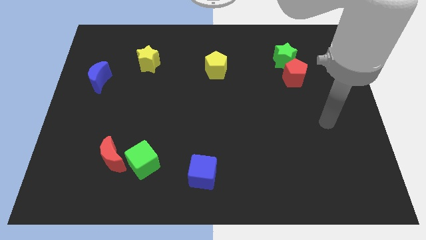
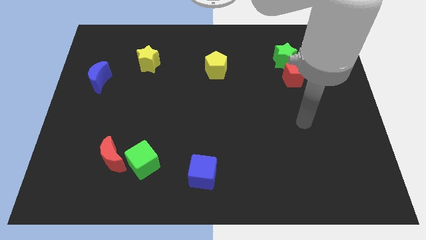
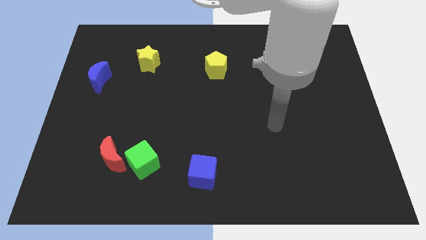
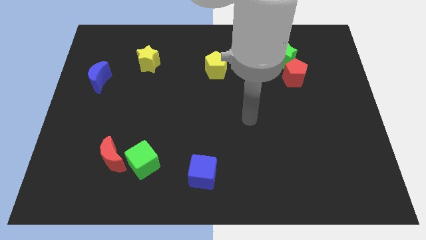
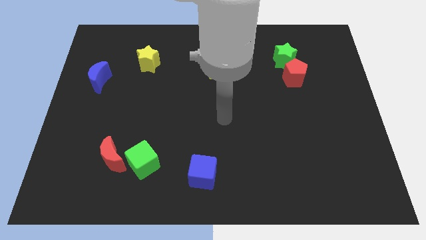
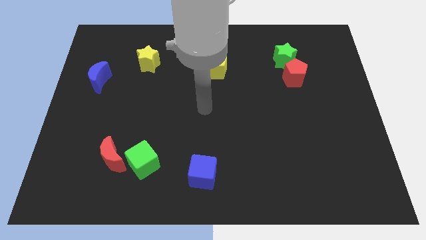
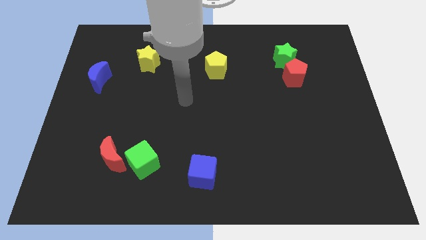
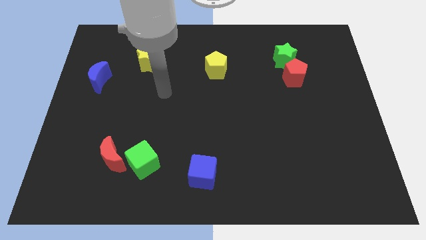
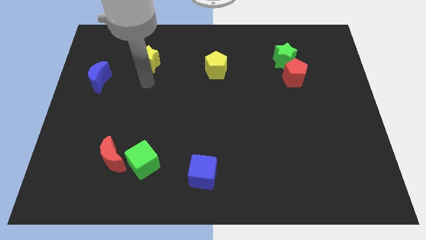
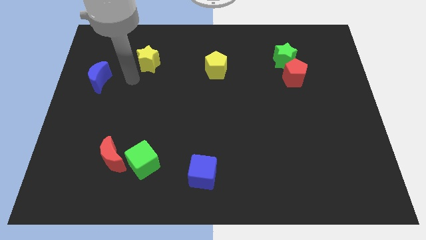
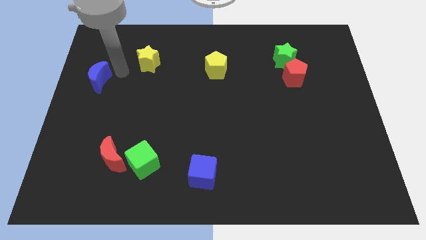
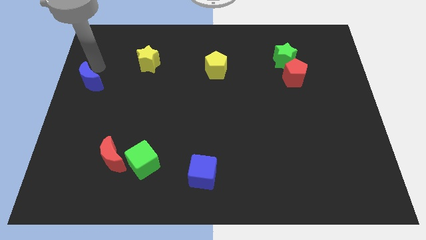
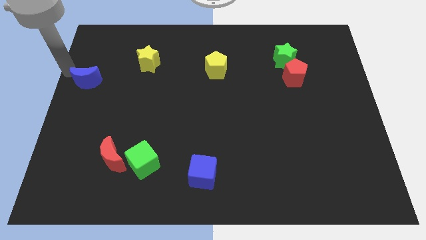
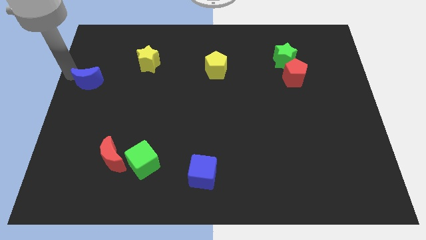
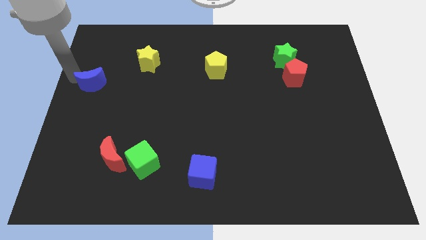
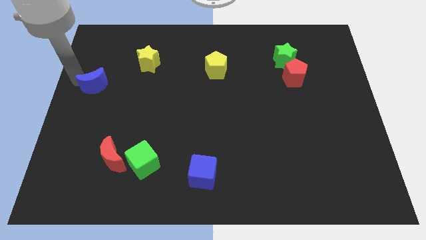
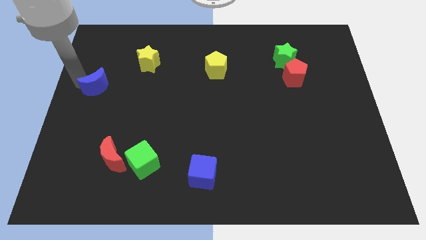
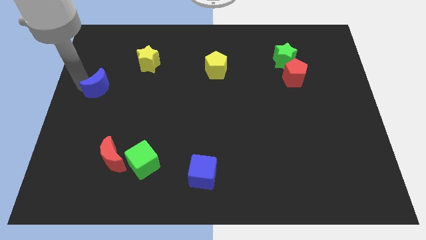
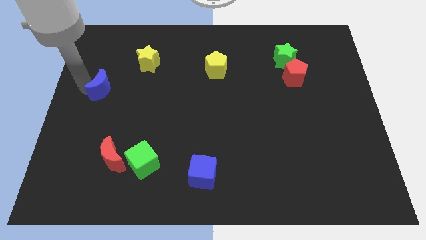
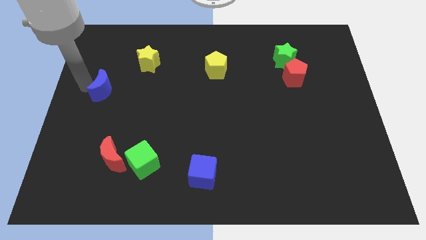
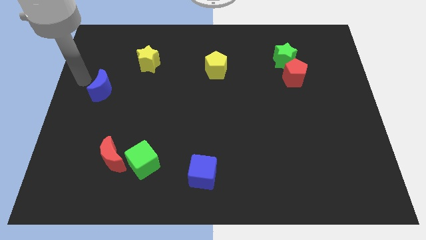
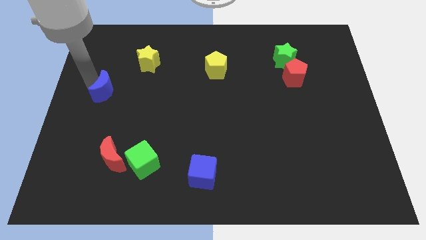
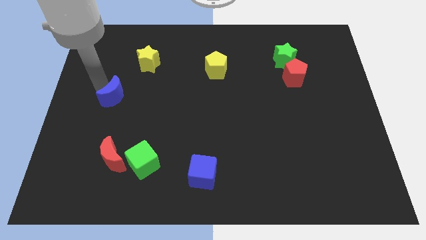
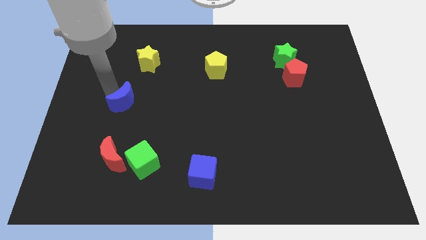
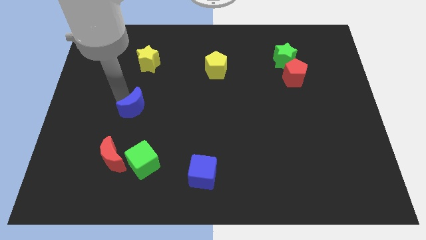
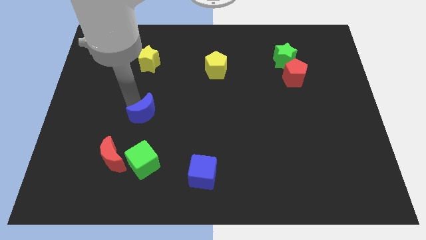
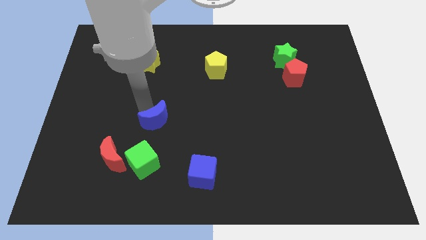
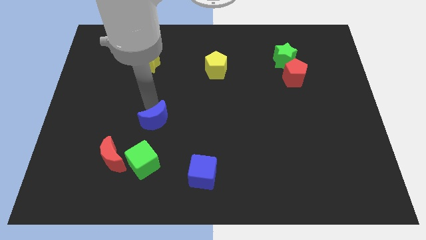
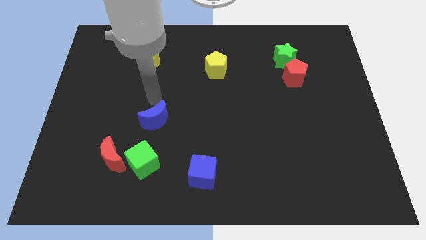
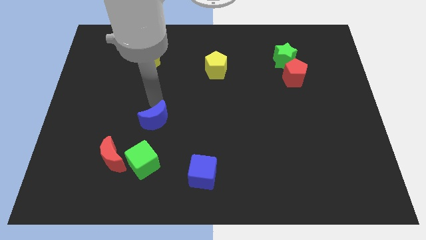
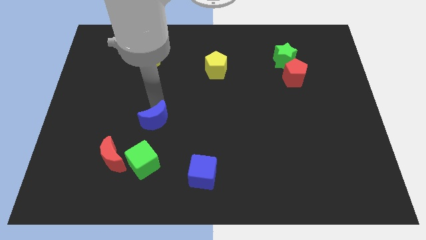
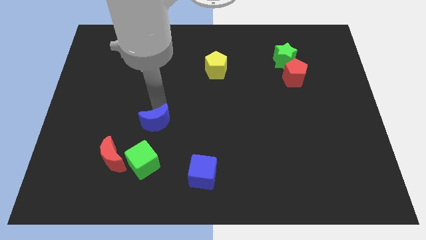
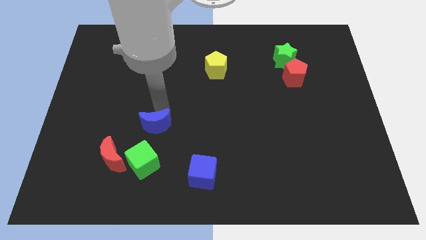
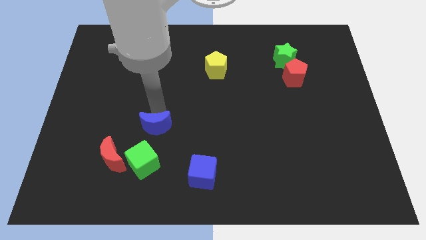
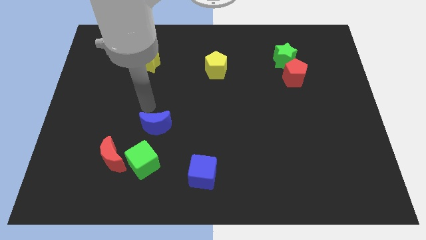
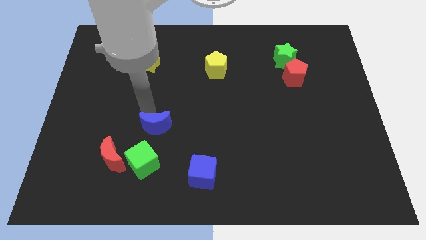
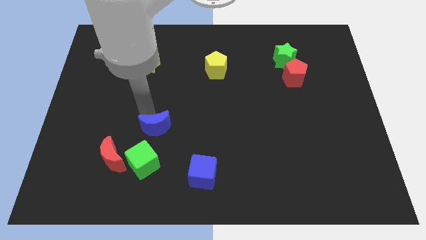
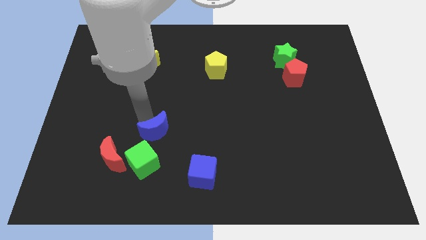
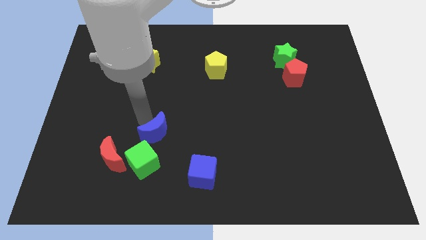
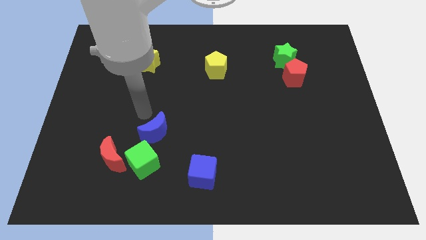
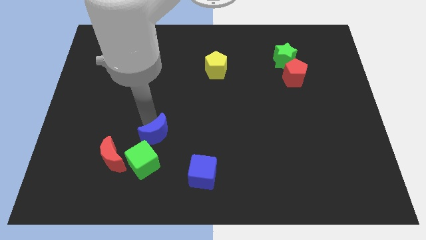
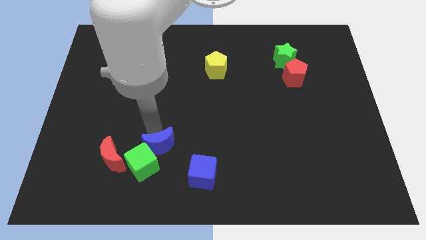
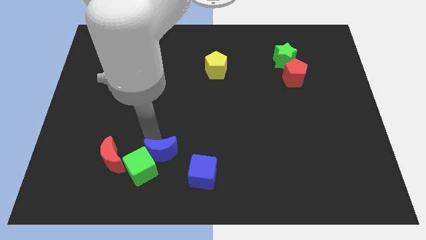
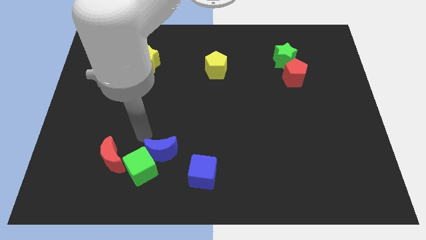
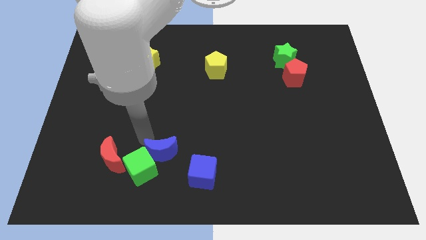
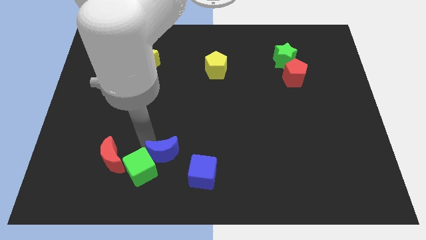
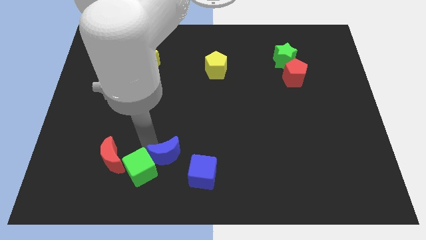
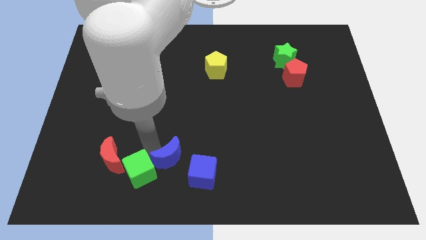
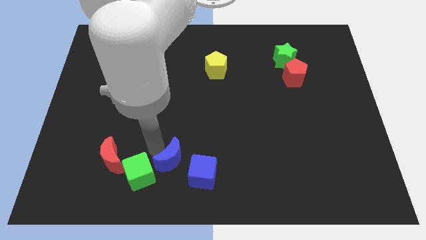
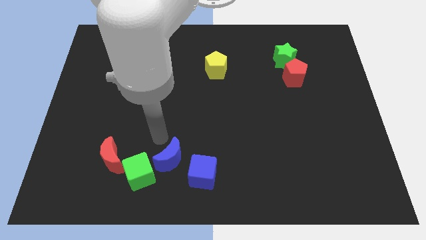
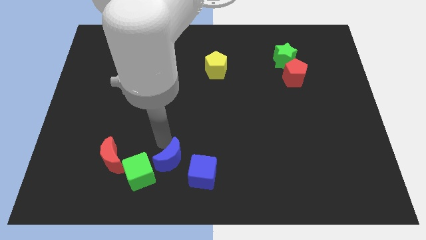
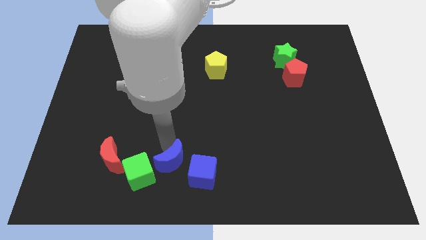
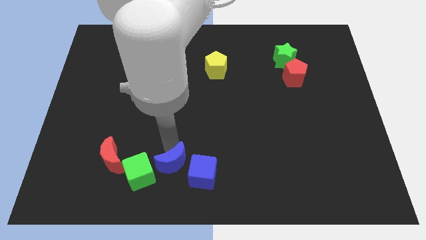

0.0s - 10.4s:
move the blue moon to the bottom side

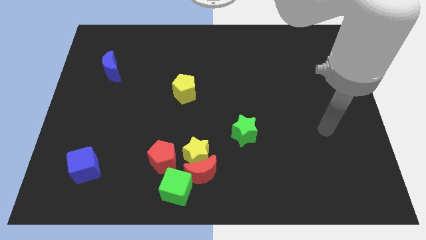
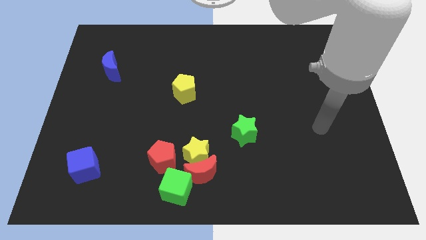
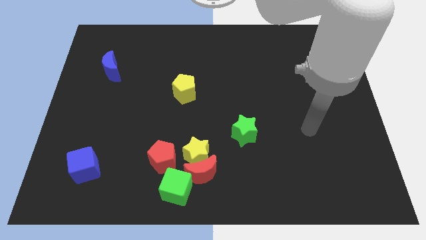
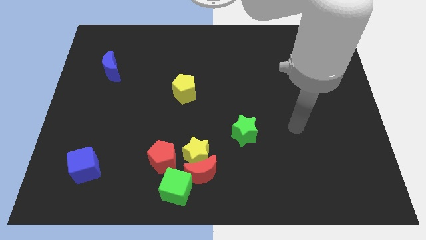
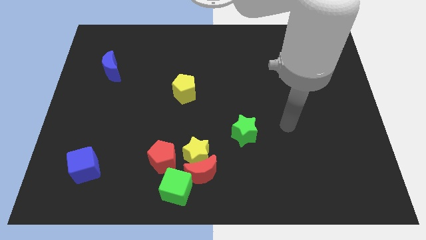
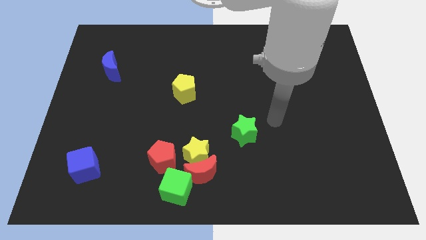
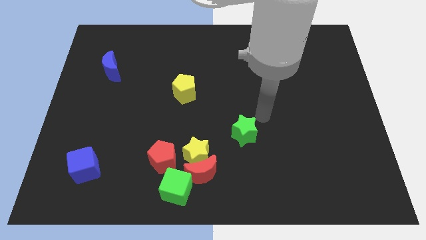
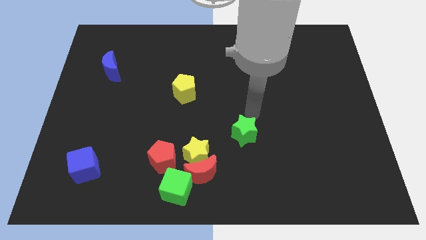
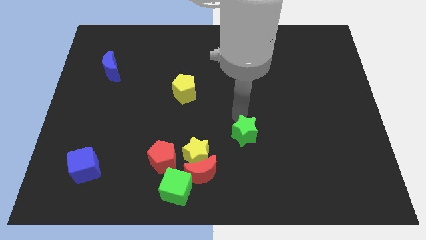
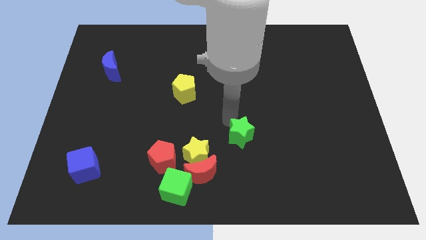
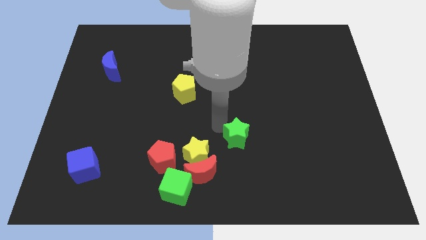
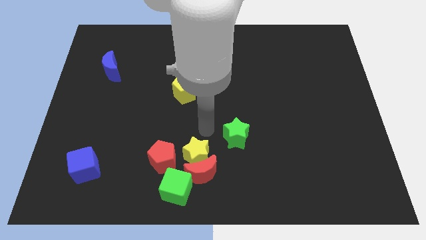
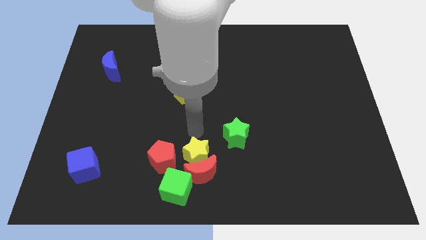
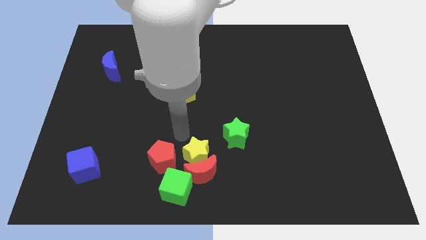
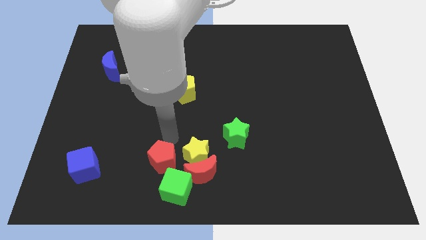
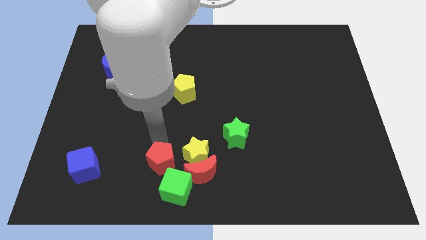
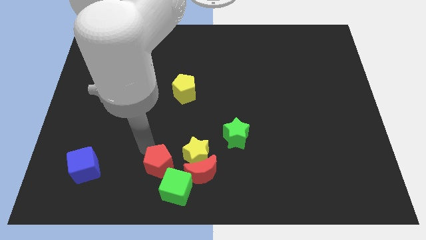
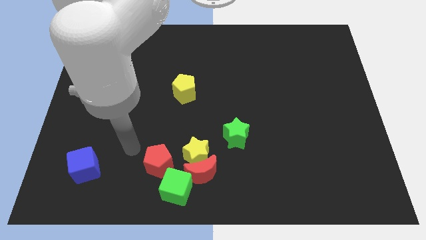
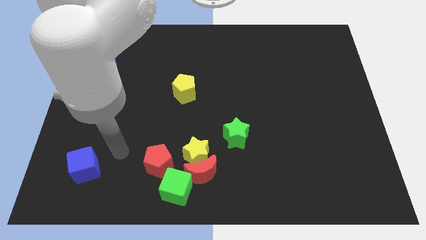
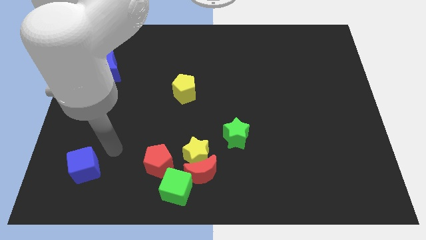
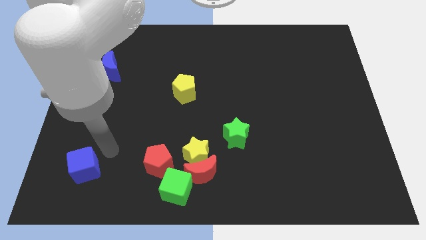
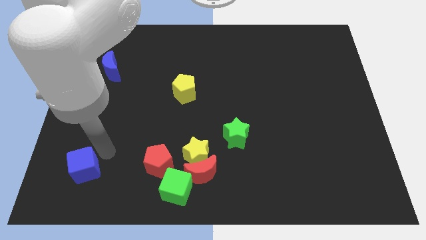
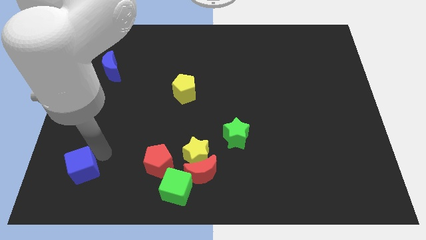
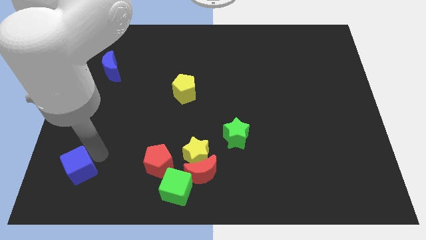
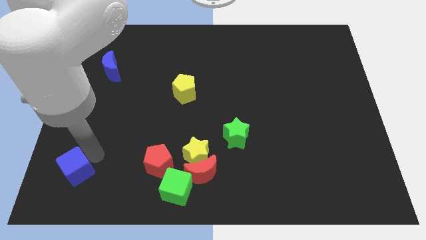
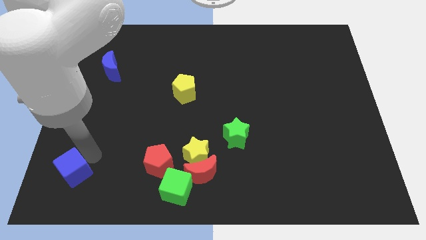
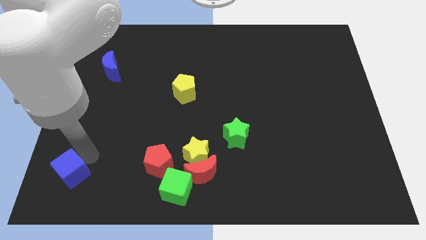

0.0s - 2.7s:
put the blue cube to the bottom left corner
